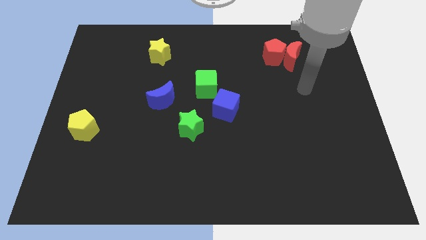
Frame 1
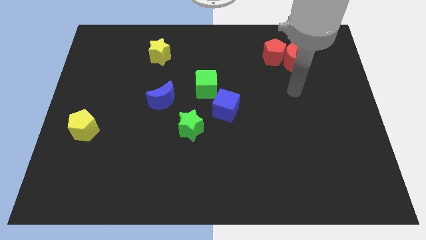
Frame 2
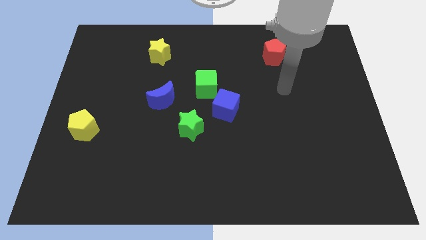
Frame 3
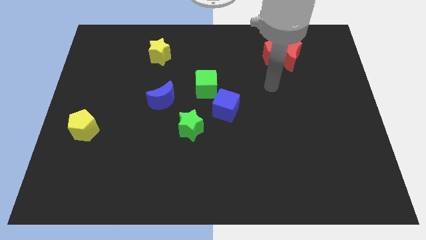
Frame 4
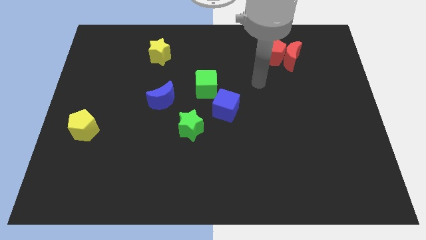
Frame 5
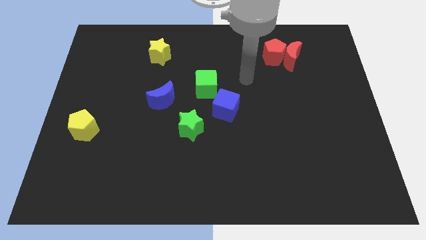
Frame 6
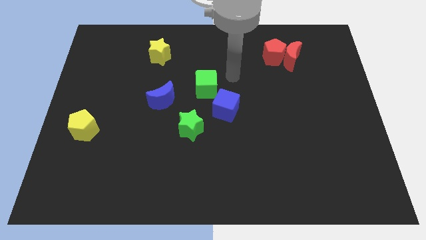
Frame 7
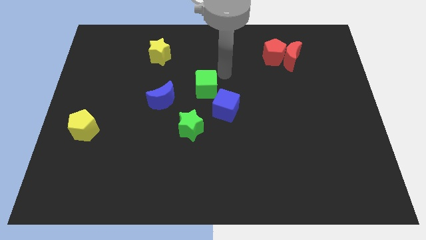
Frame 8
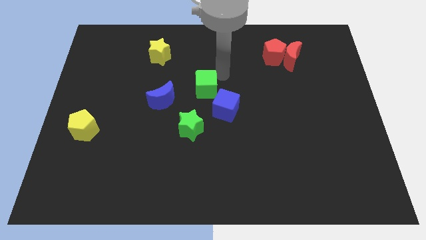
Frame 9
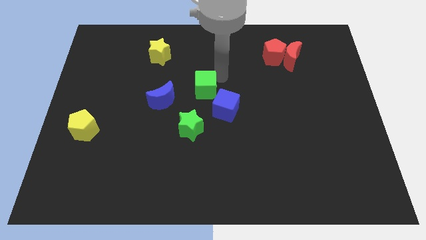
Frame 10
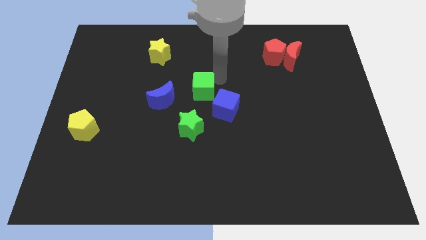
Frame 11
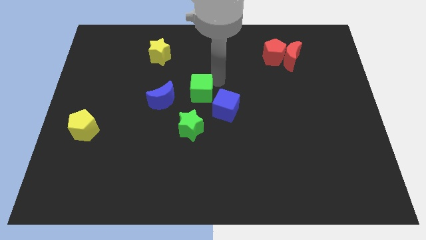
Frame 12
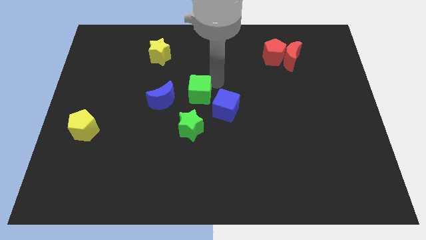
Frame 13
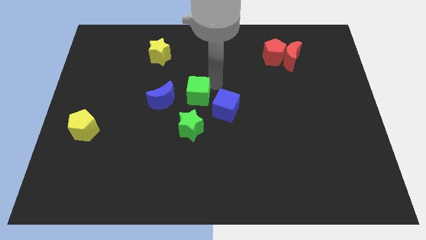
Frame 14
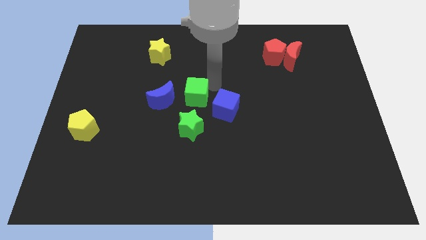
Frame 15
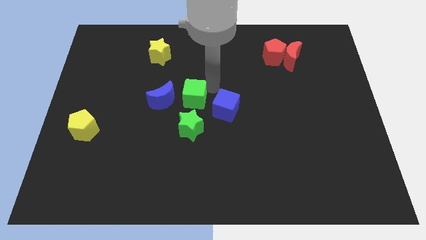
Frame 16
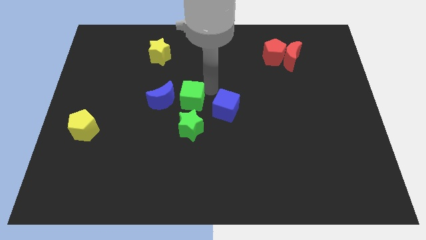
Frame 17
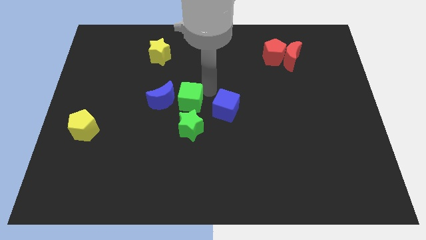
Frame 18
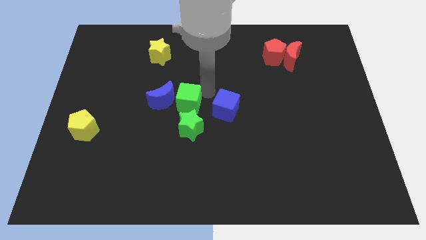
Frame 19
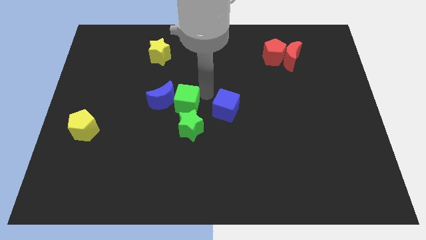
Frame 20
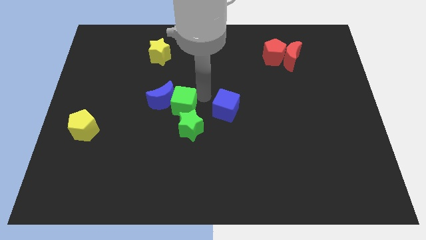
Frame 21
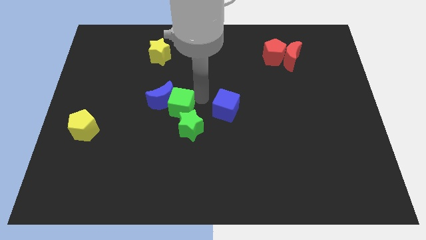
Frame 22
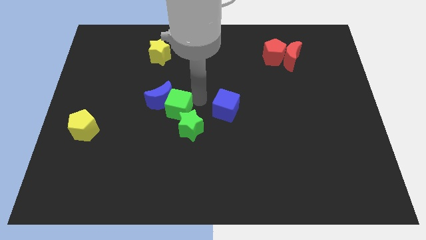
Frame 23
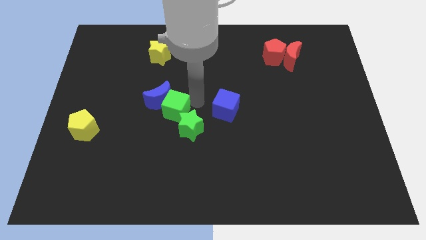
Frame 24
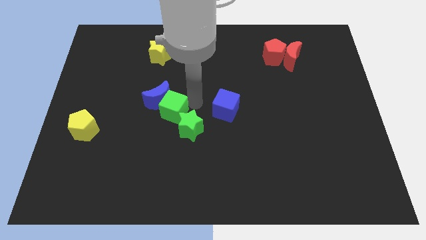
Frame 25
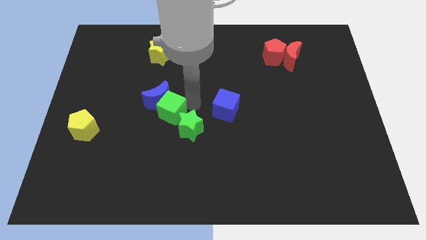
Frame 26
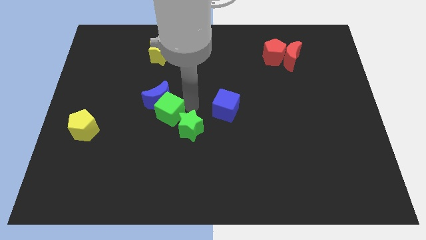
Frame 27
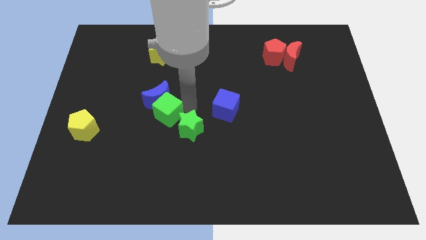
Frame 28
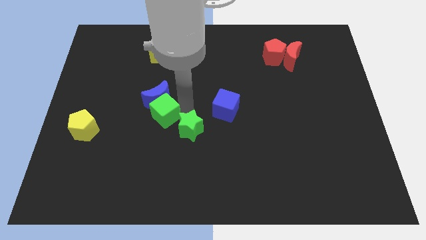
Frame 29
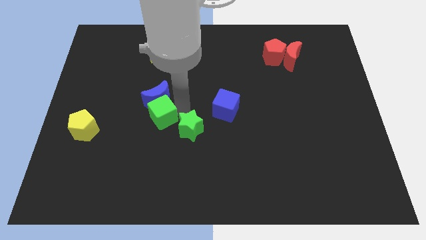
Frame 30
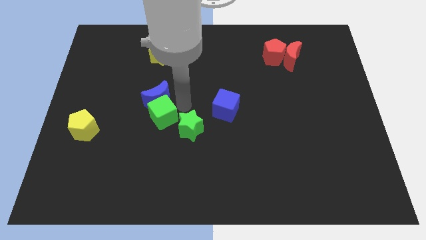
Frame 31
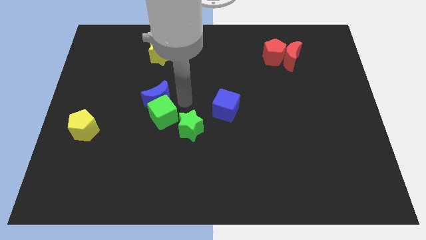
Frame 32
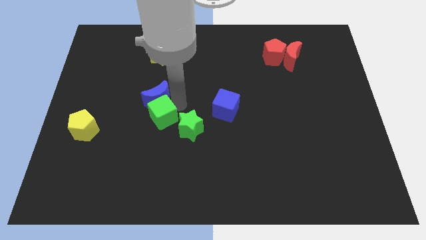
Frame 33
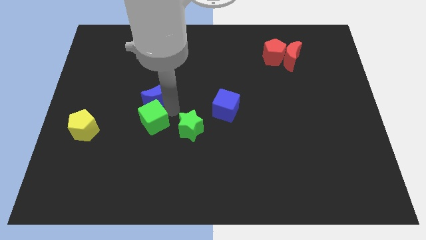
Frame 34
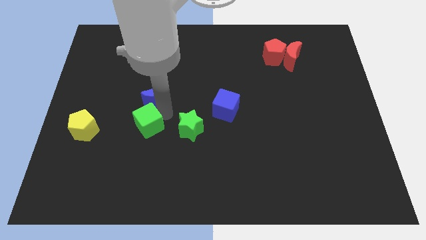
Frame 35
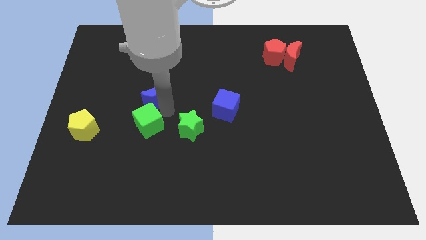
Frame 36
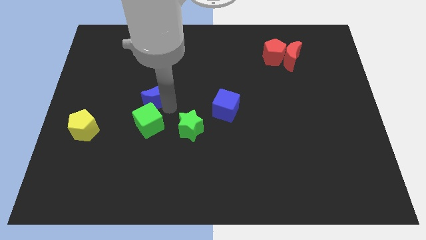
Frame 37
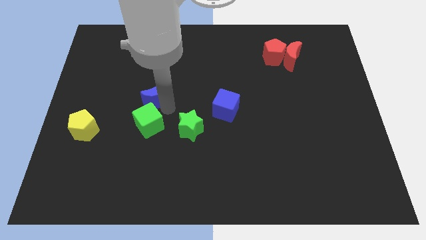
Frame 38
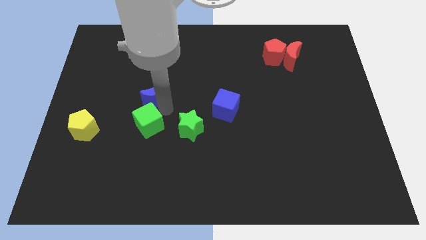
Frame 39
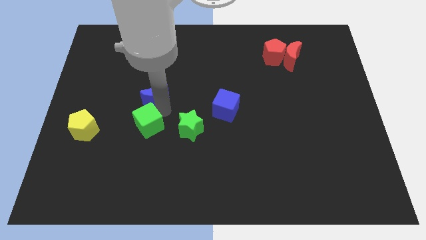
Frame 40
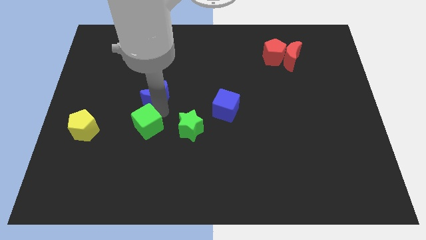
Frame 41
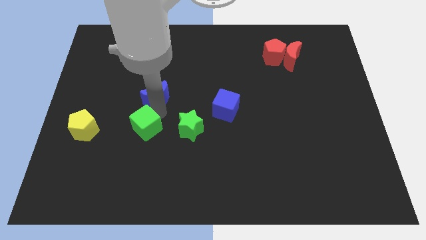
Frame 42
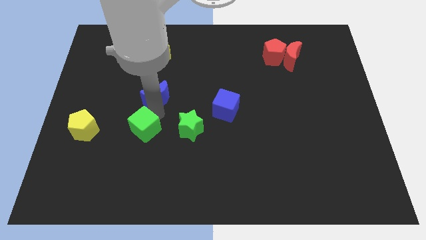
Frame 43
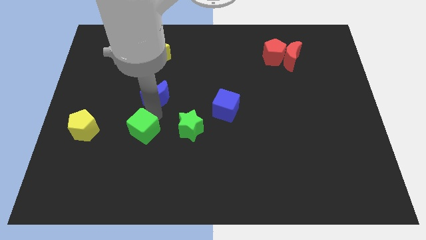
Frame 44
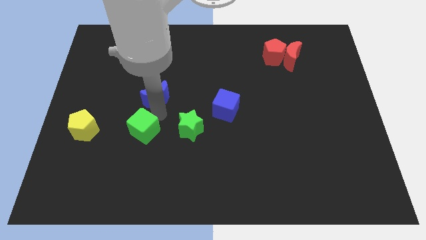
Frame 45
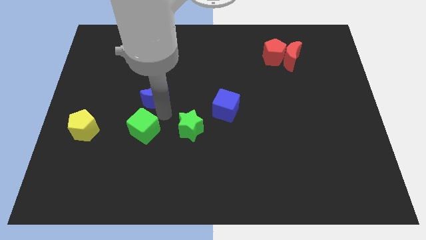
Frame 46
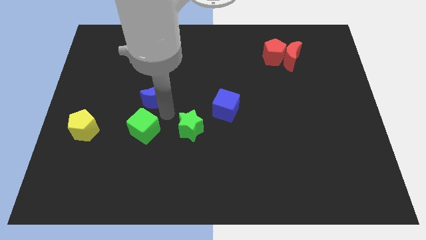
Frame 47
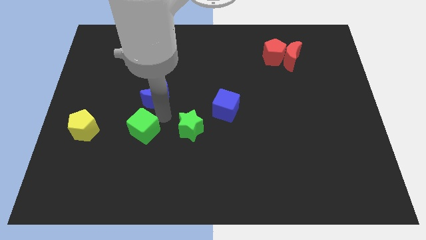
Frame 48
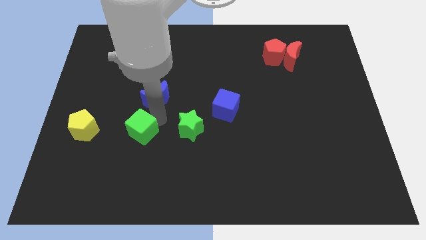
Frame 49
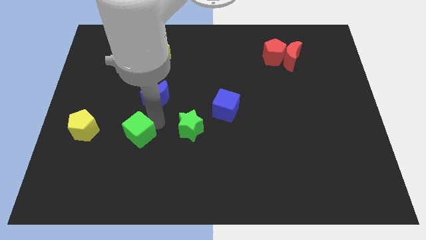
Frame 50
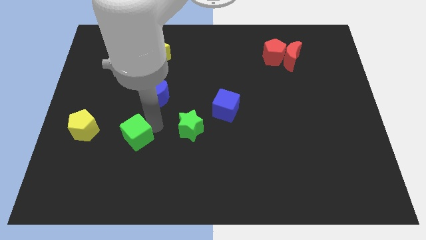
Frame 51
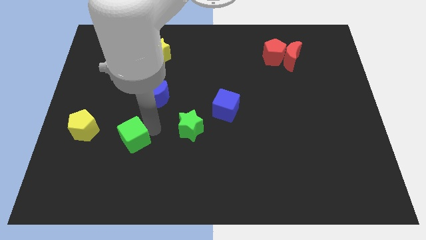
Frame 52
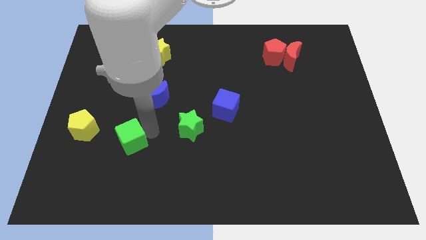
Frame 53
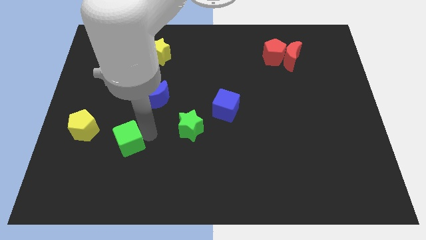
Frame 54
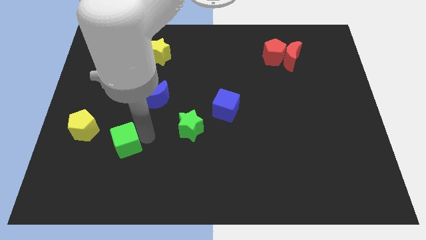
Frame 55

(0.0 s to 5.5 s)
put the green cube diagonally down and to the right of the yellow pentagon
